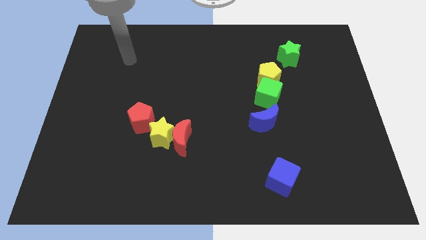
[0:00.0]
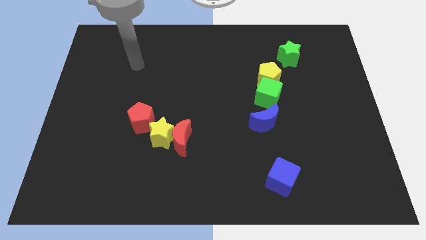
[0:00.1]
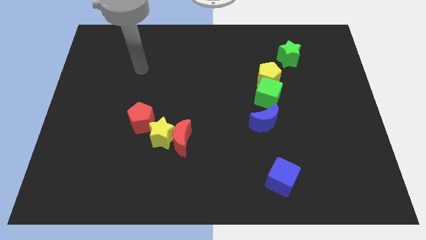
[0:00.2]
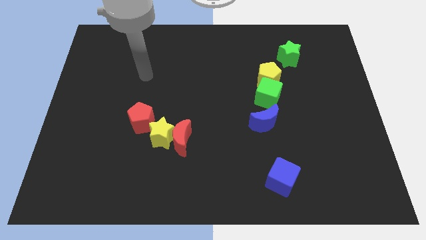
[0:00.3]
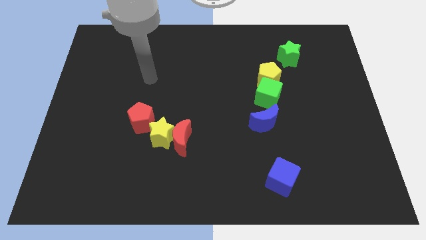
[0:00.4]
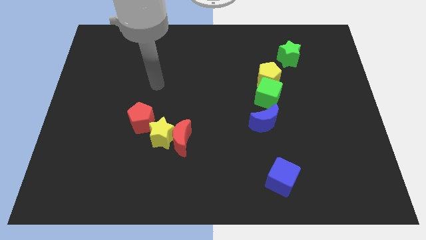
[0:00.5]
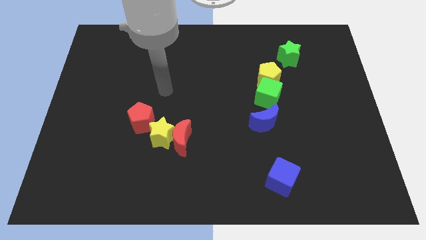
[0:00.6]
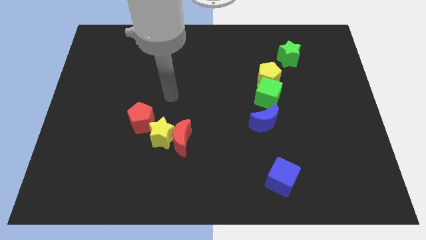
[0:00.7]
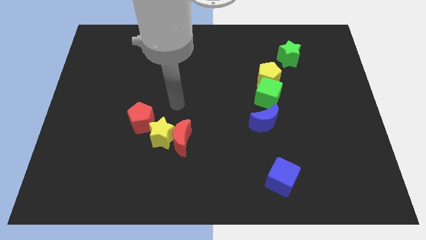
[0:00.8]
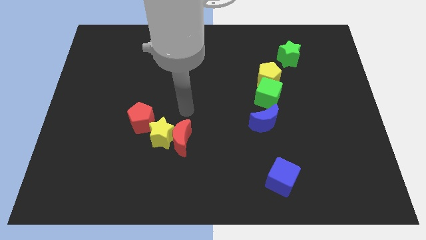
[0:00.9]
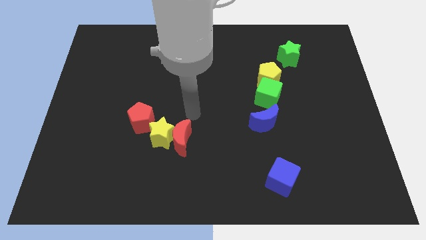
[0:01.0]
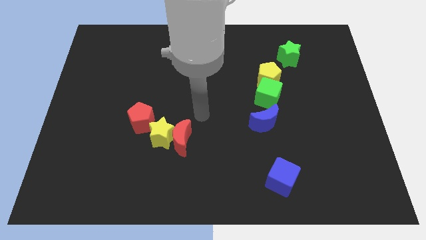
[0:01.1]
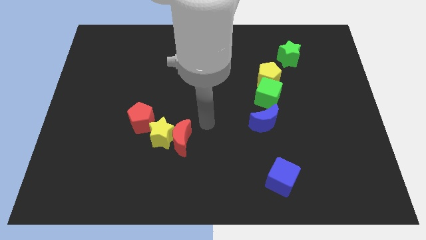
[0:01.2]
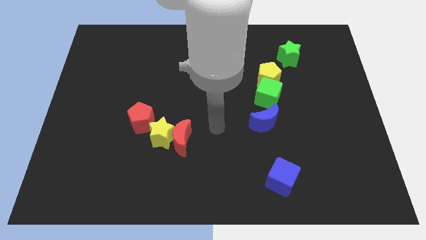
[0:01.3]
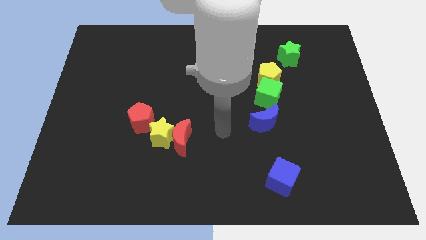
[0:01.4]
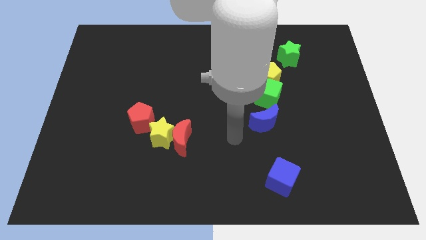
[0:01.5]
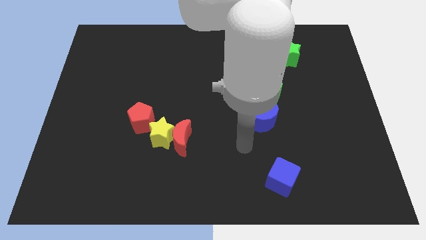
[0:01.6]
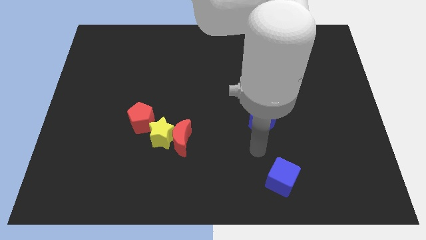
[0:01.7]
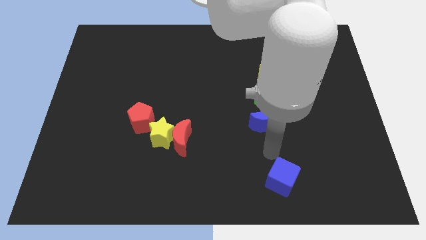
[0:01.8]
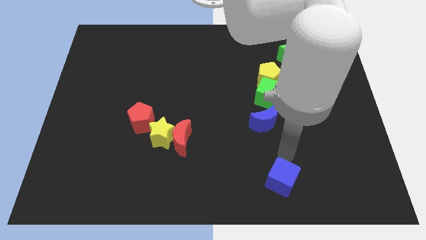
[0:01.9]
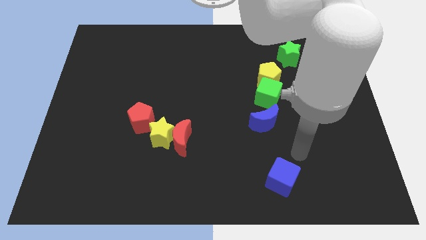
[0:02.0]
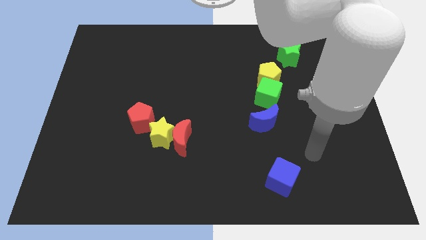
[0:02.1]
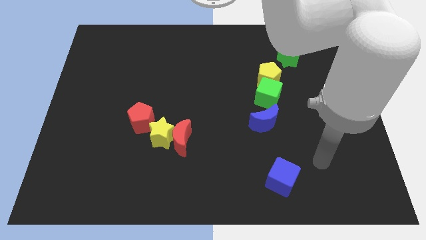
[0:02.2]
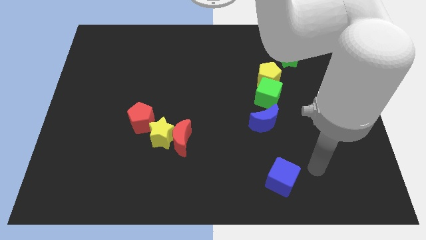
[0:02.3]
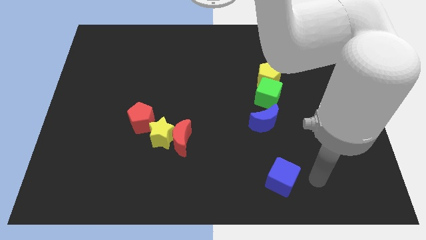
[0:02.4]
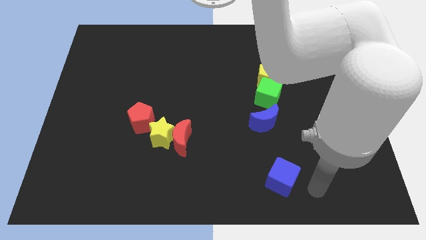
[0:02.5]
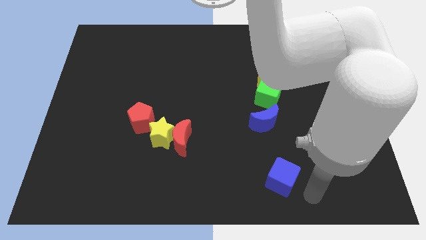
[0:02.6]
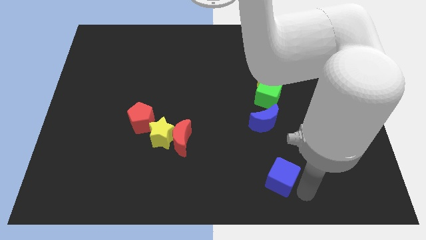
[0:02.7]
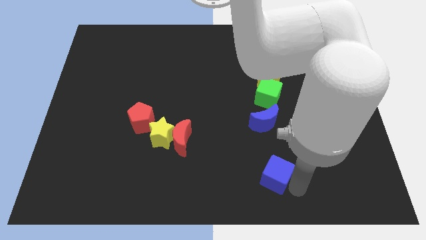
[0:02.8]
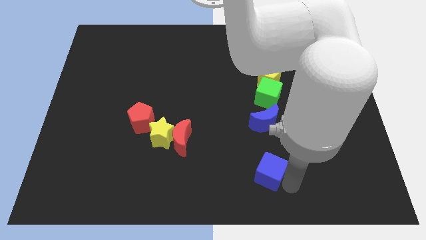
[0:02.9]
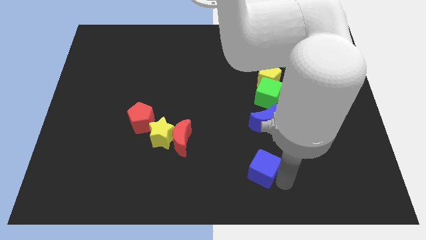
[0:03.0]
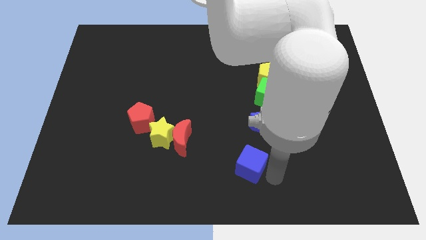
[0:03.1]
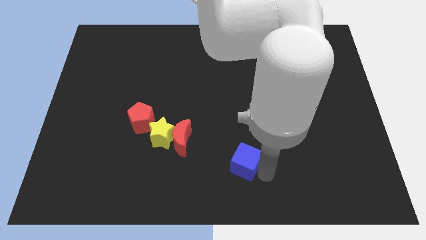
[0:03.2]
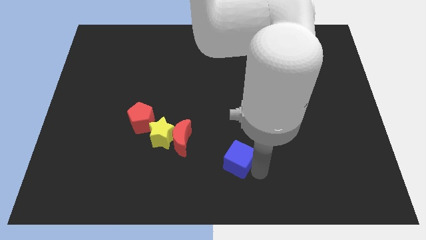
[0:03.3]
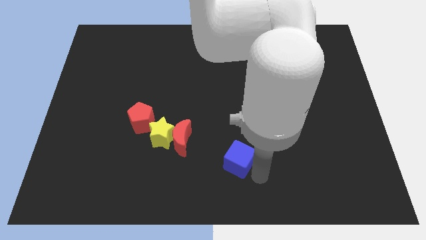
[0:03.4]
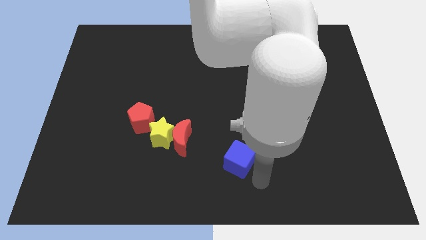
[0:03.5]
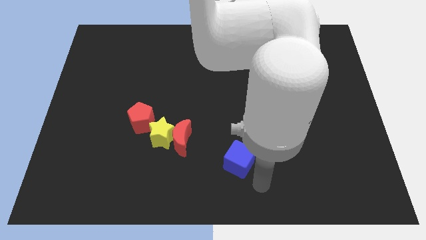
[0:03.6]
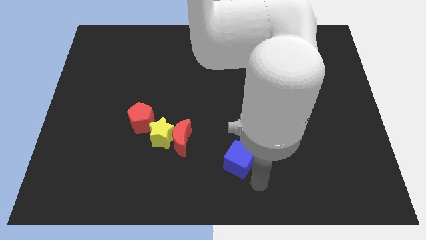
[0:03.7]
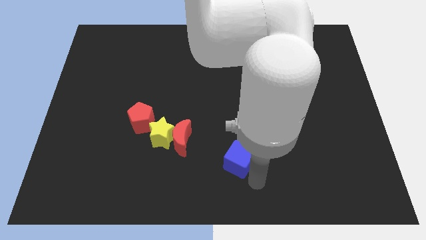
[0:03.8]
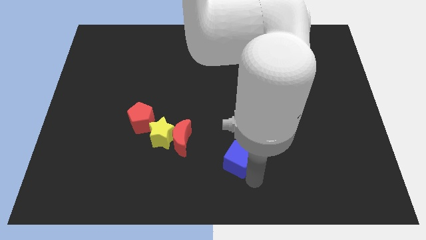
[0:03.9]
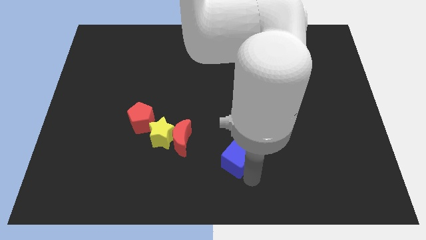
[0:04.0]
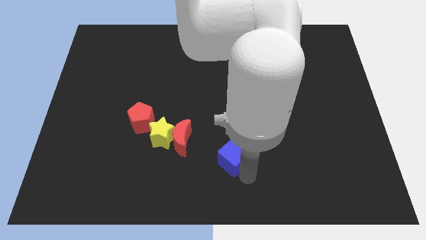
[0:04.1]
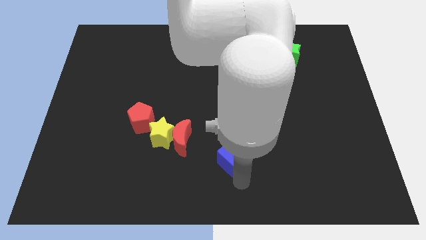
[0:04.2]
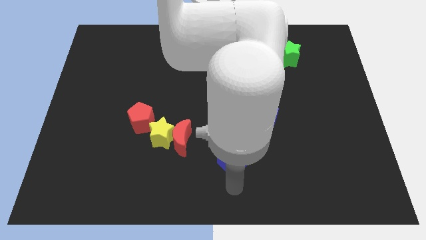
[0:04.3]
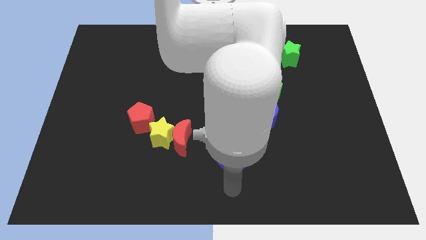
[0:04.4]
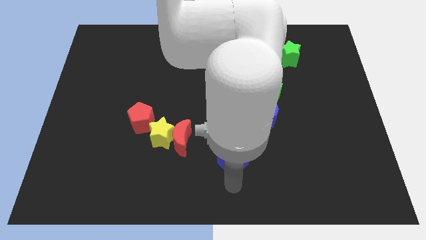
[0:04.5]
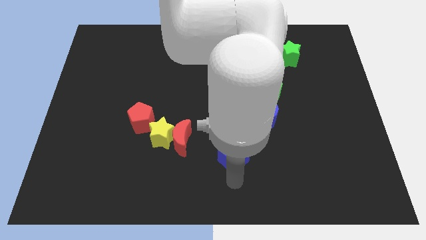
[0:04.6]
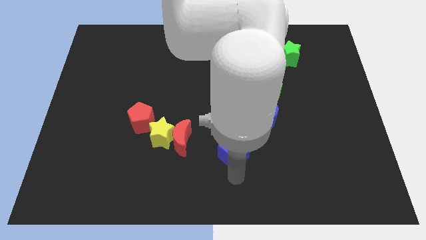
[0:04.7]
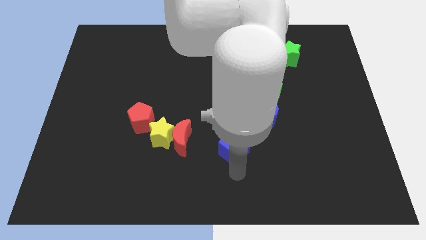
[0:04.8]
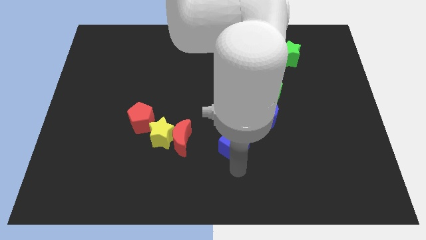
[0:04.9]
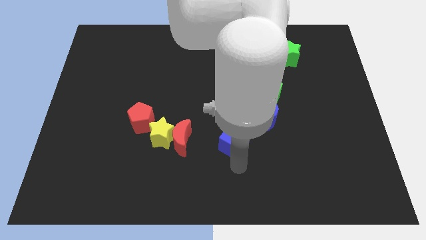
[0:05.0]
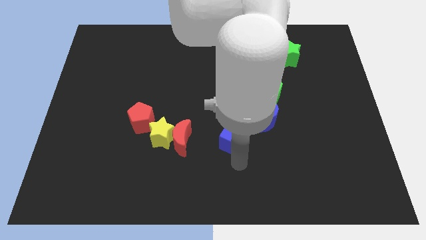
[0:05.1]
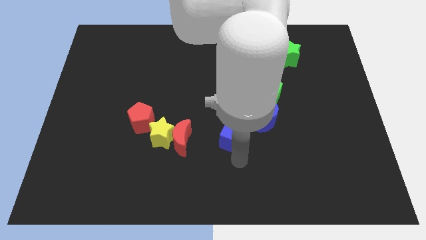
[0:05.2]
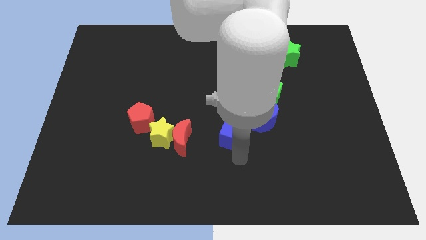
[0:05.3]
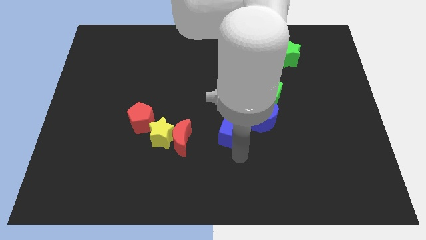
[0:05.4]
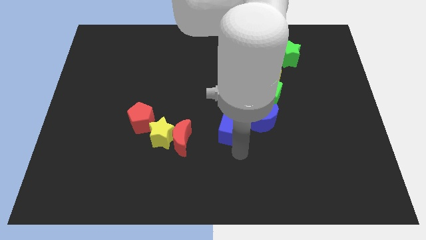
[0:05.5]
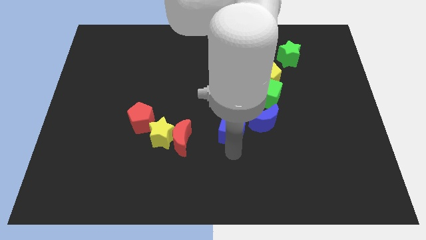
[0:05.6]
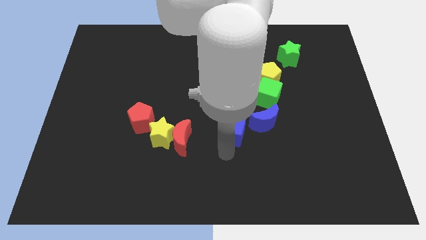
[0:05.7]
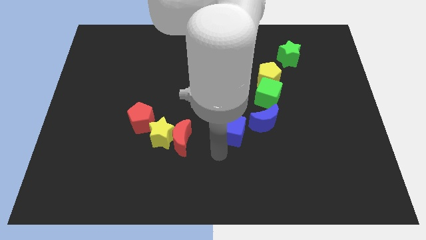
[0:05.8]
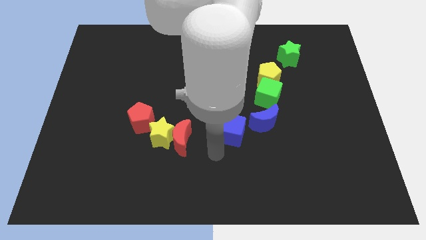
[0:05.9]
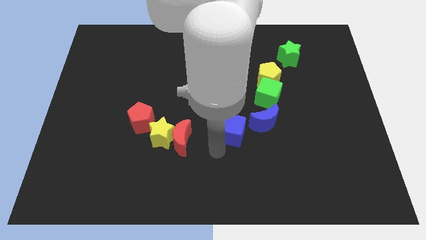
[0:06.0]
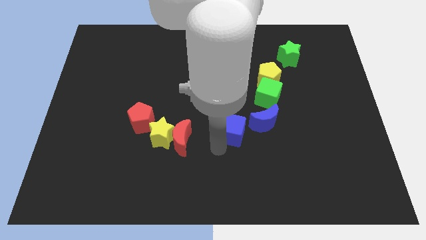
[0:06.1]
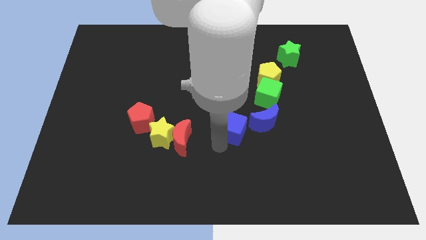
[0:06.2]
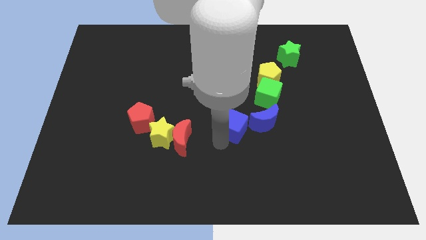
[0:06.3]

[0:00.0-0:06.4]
push the blue cube diagonally down and to the left of the green cube
